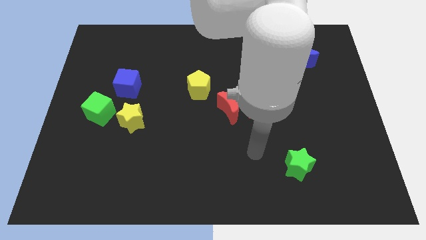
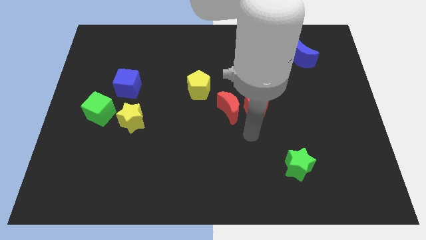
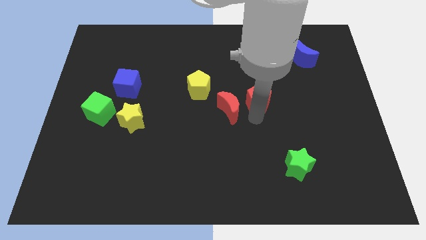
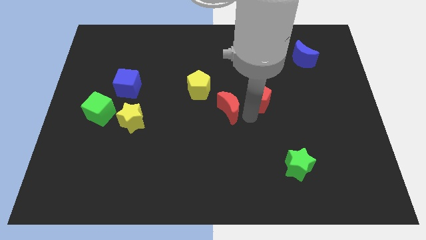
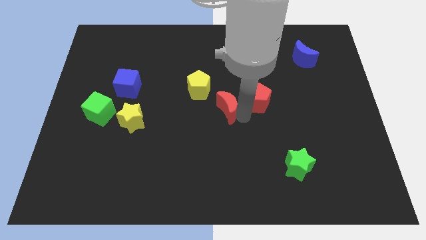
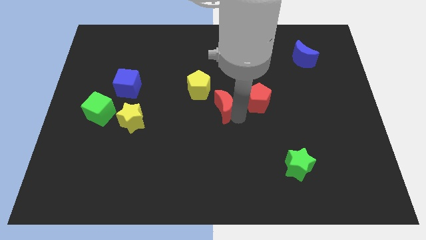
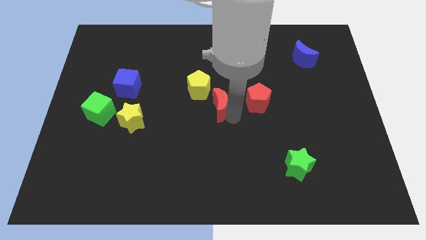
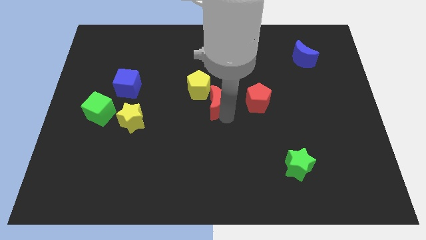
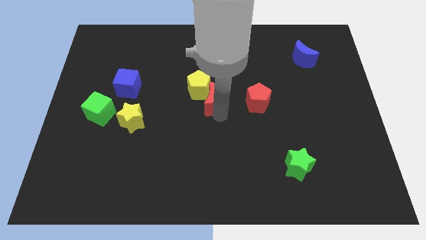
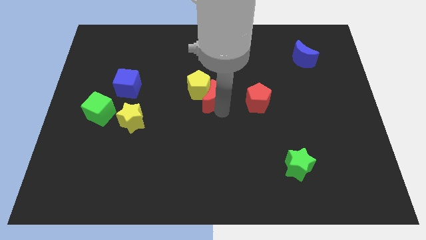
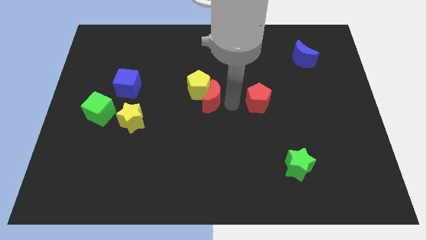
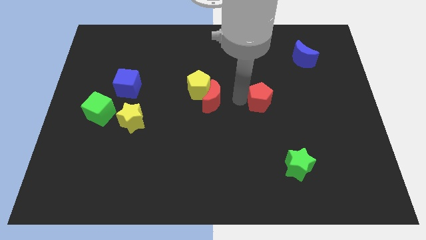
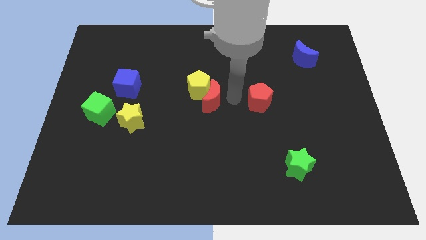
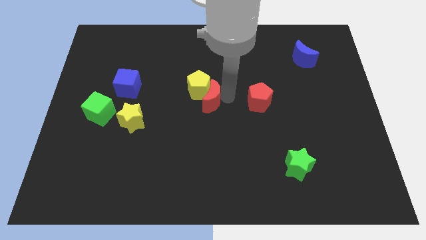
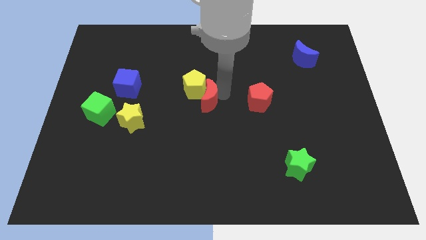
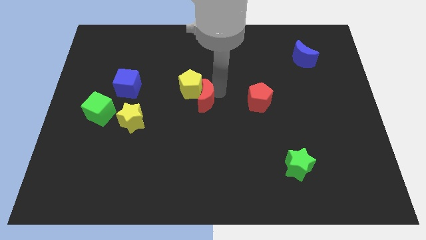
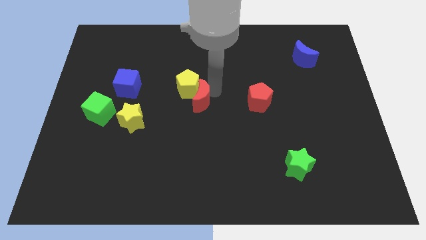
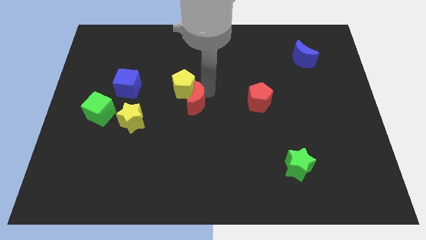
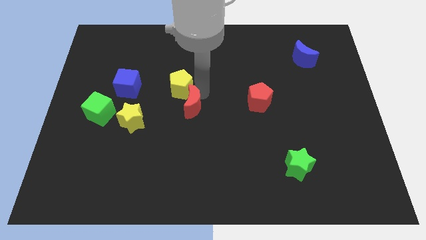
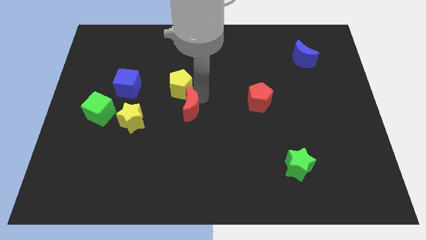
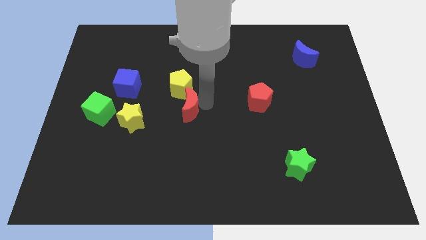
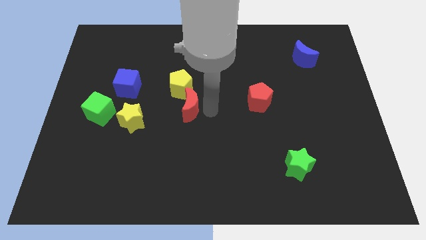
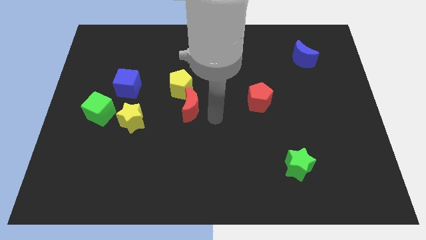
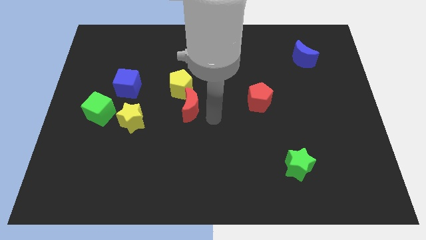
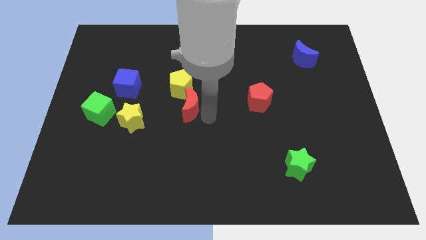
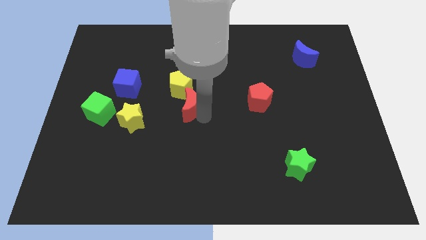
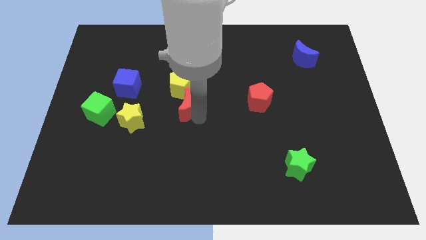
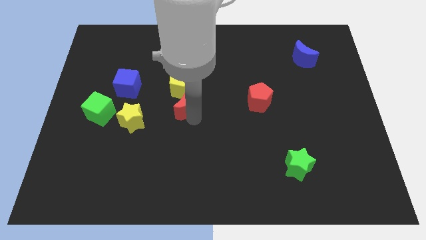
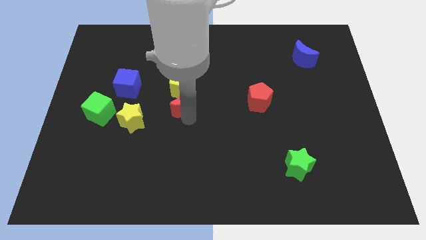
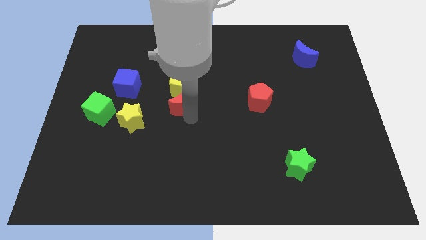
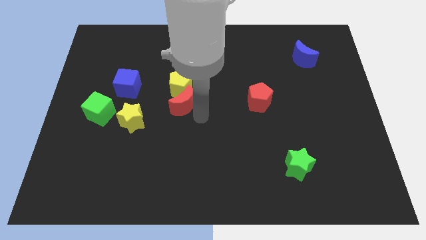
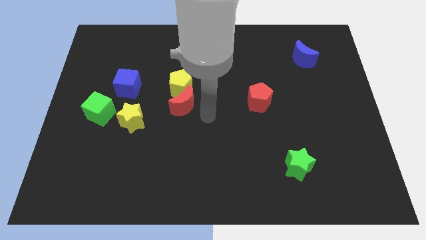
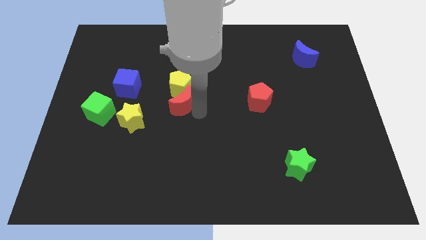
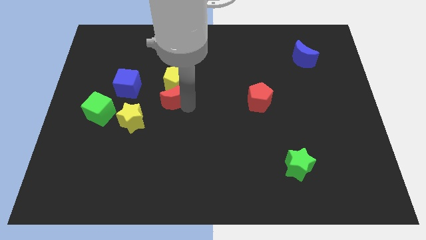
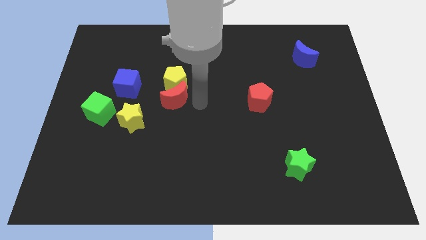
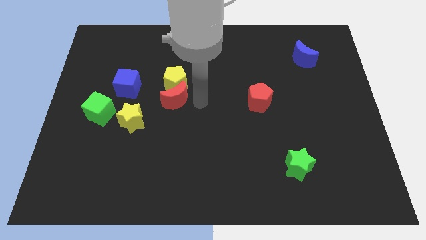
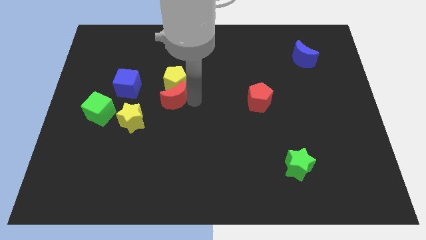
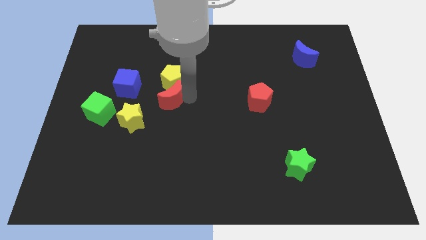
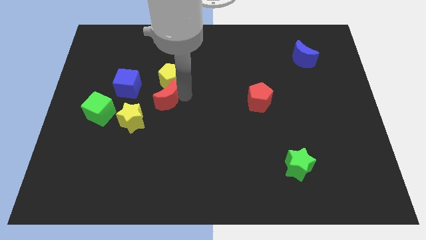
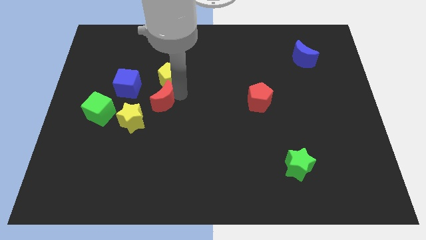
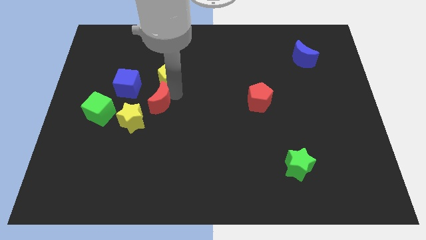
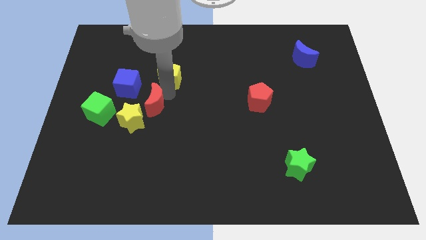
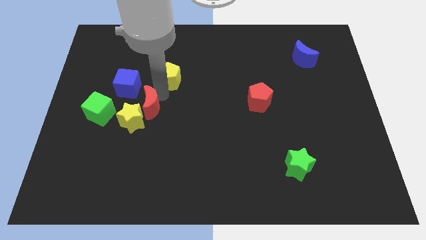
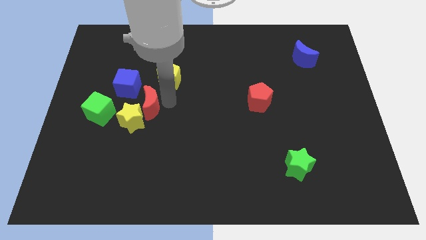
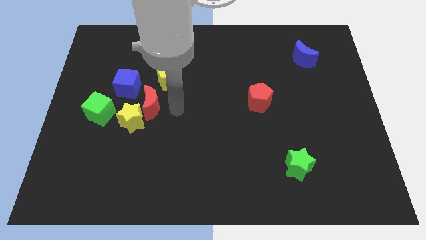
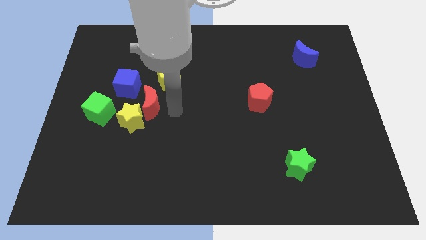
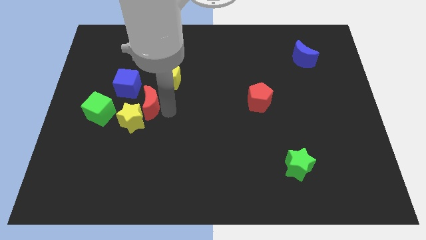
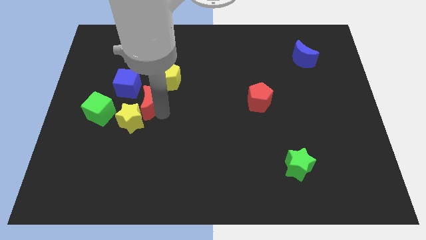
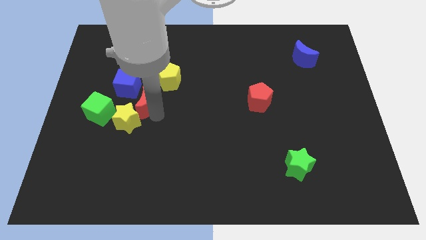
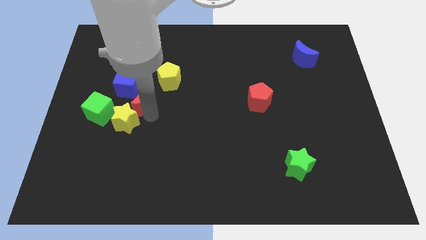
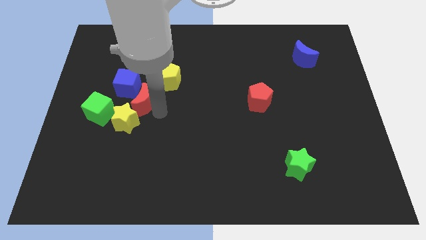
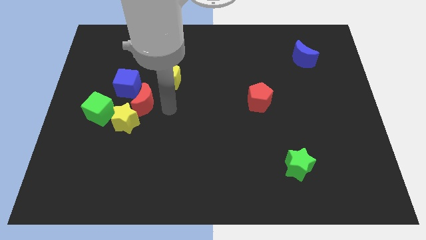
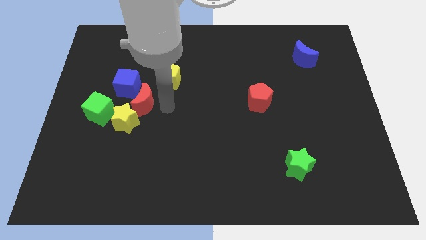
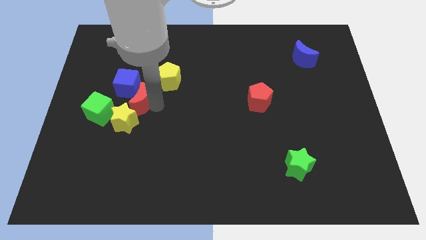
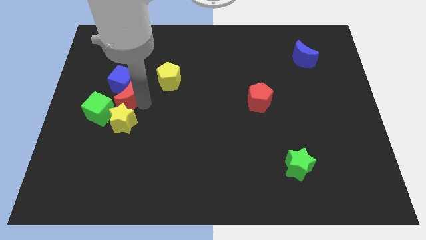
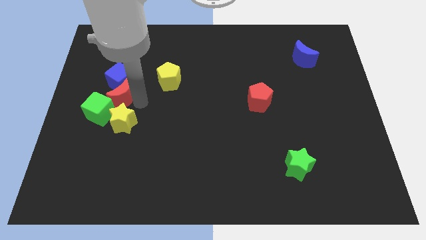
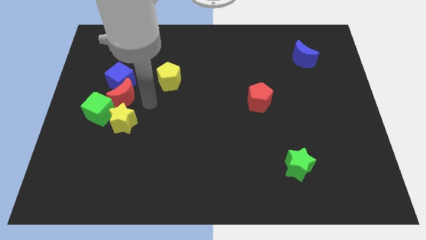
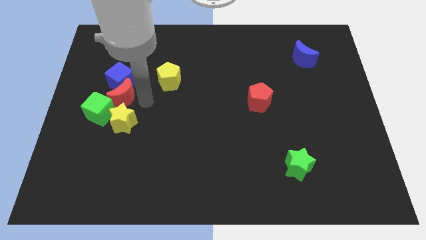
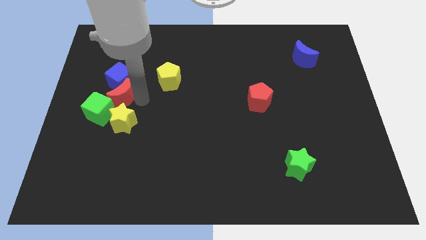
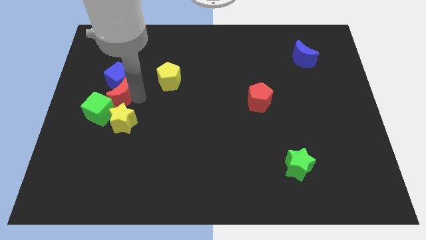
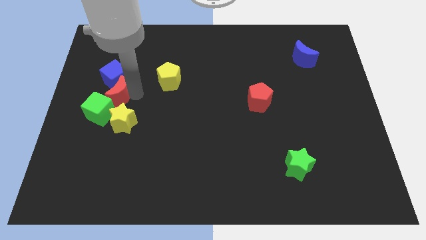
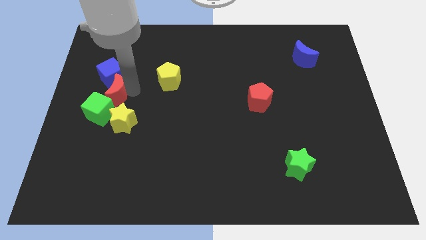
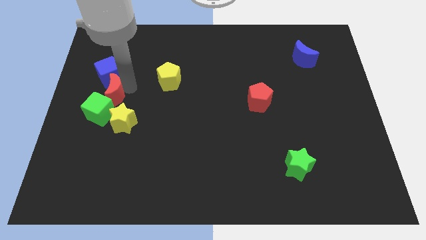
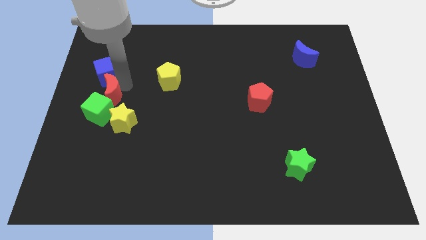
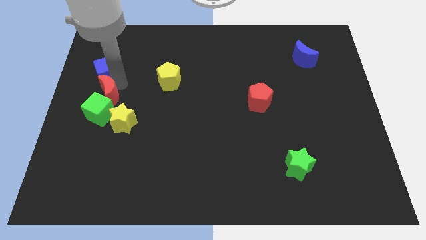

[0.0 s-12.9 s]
slide the red moon to the left side of the board
